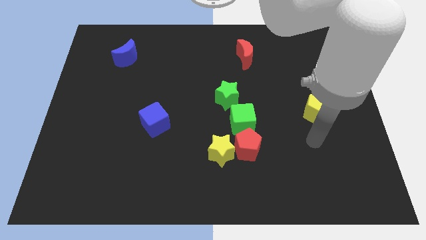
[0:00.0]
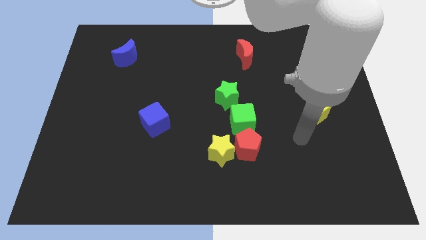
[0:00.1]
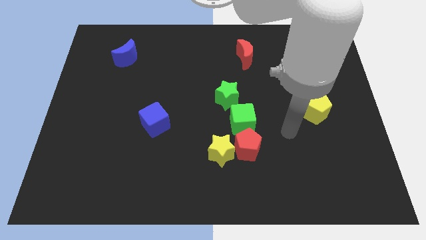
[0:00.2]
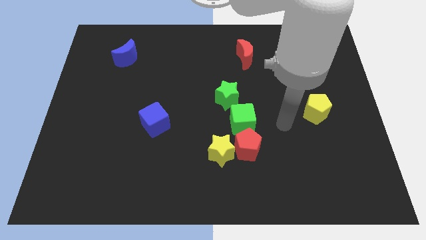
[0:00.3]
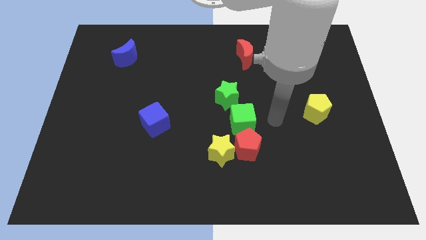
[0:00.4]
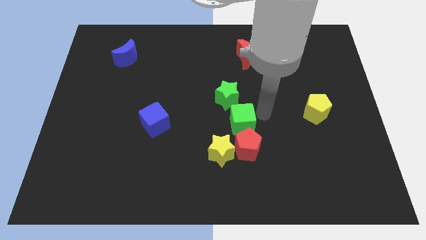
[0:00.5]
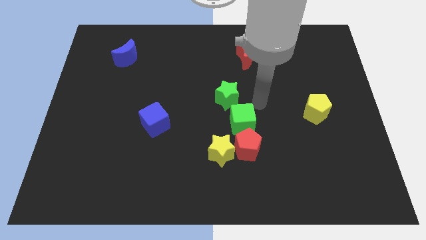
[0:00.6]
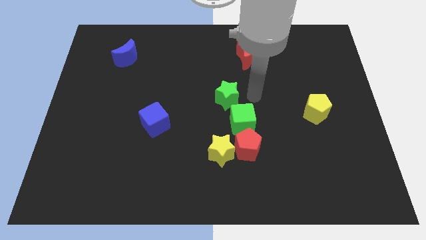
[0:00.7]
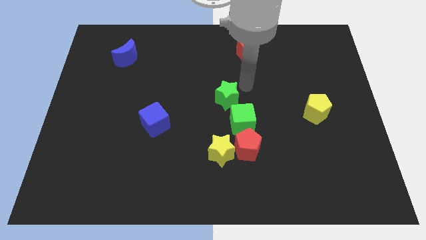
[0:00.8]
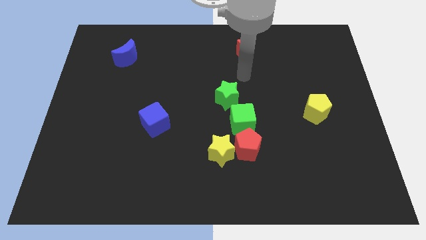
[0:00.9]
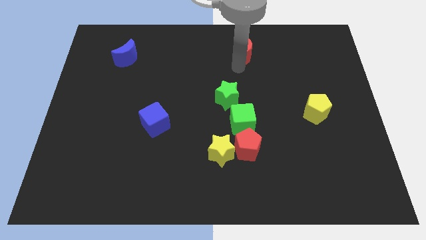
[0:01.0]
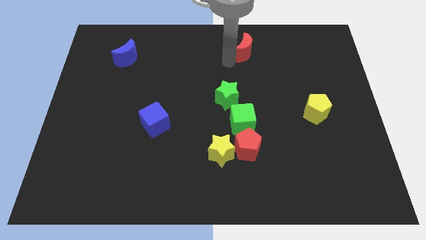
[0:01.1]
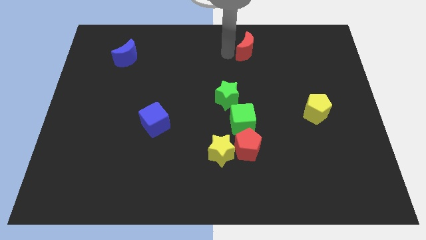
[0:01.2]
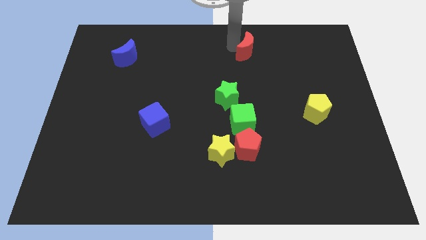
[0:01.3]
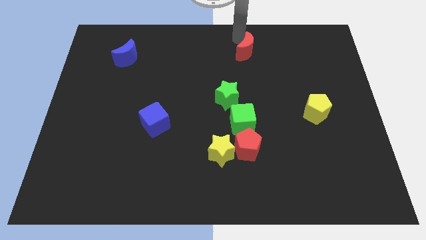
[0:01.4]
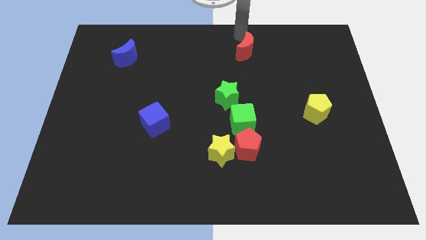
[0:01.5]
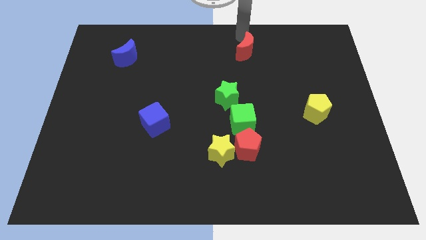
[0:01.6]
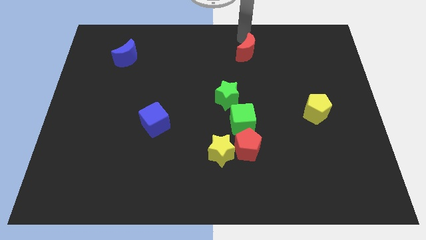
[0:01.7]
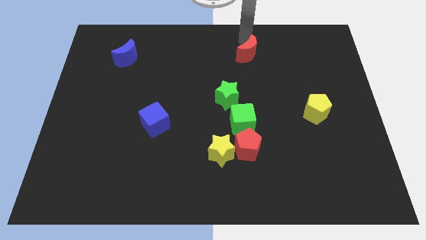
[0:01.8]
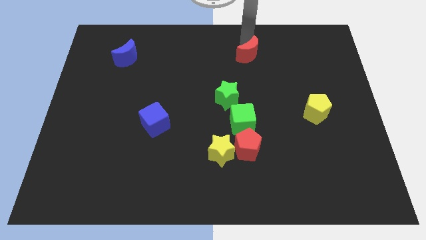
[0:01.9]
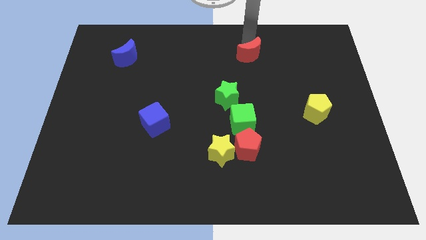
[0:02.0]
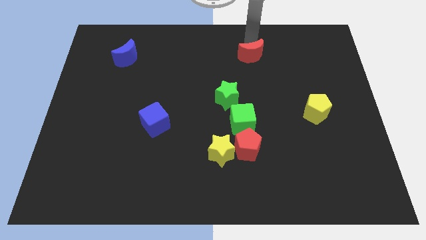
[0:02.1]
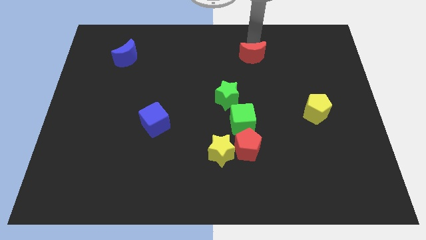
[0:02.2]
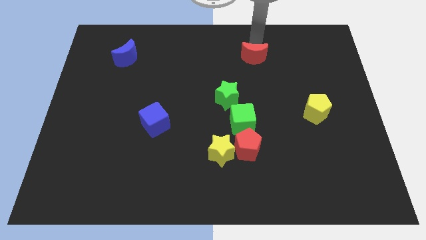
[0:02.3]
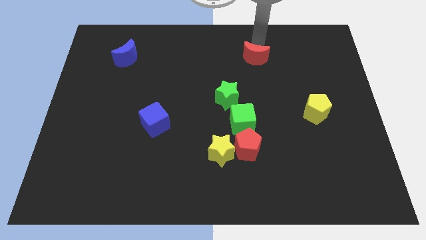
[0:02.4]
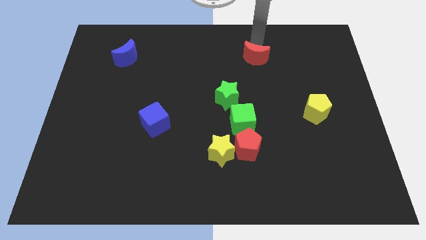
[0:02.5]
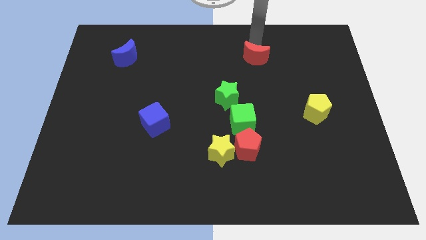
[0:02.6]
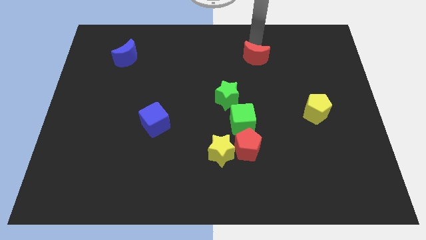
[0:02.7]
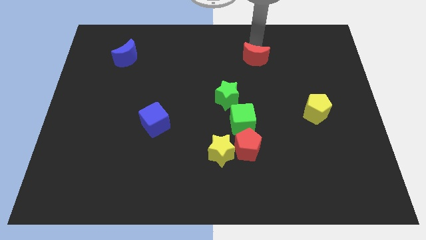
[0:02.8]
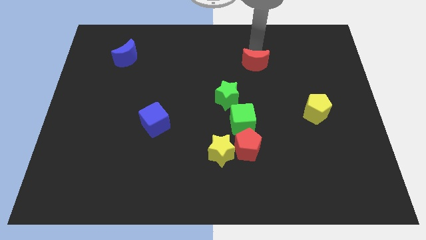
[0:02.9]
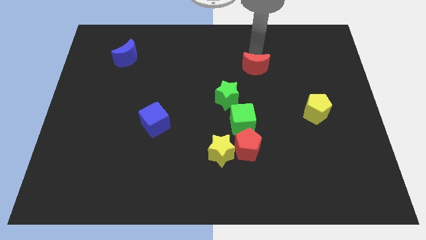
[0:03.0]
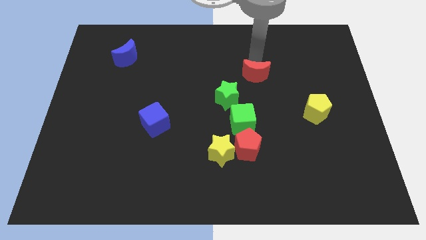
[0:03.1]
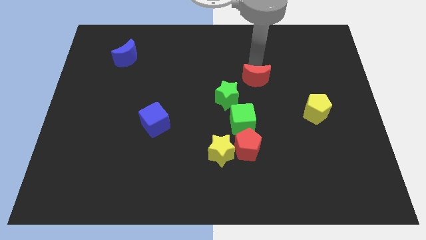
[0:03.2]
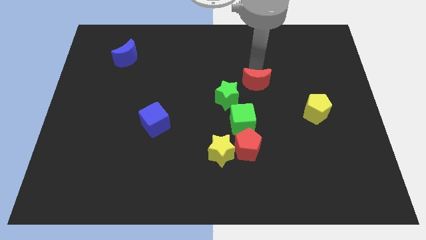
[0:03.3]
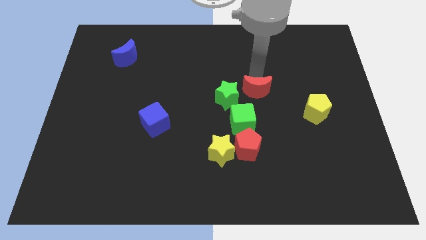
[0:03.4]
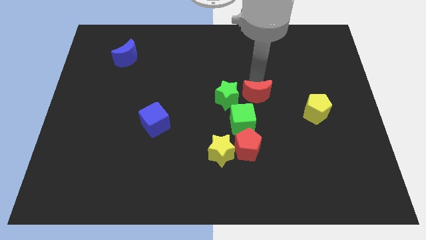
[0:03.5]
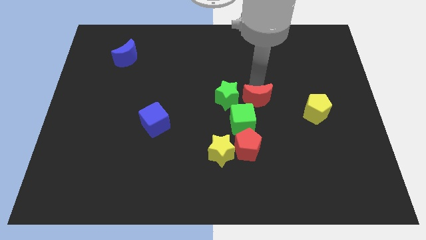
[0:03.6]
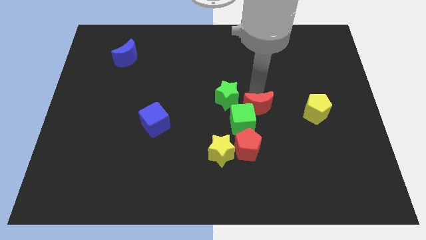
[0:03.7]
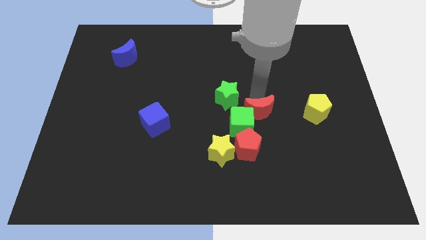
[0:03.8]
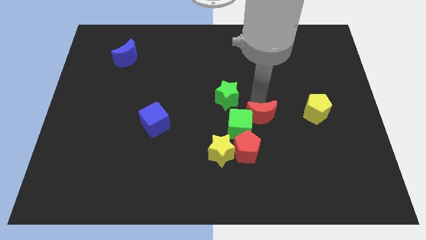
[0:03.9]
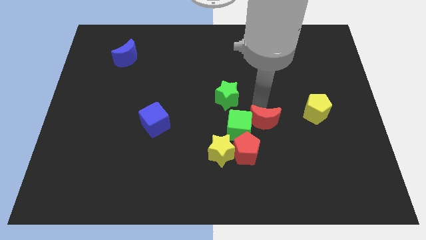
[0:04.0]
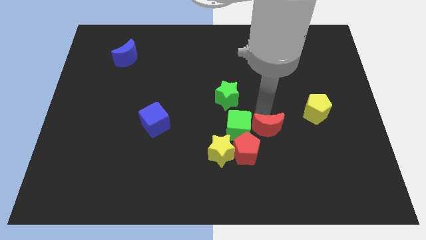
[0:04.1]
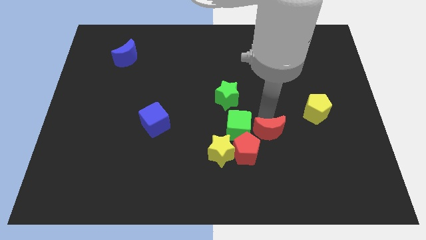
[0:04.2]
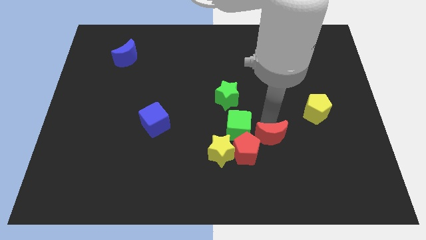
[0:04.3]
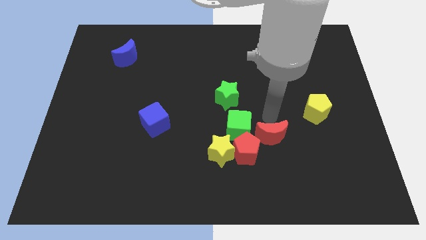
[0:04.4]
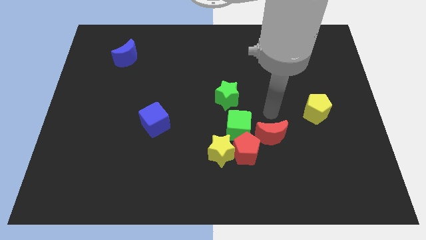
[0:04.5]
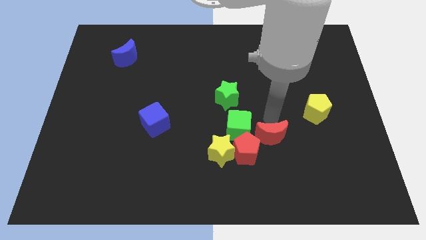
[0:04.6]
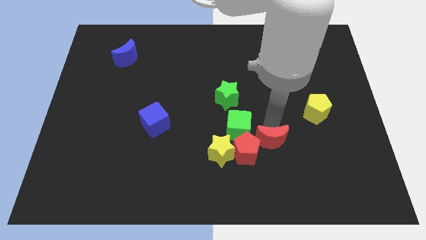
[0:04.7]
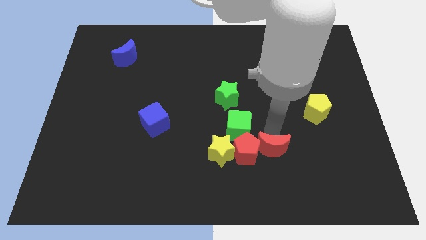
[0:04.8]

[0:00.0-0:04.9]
move the red moon to the bottom right of the red pentagon

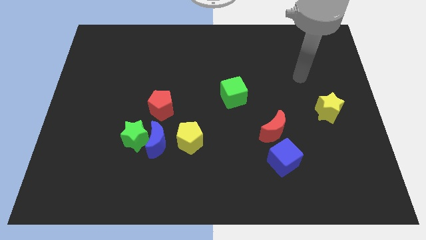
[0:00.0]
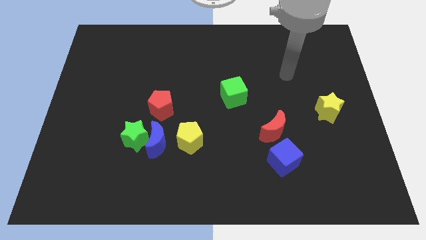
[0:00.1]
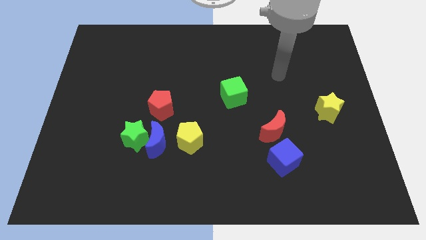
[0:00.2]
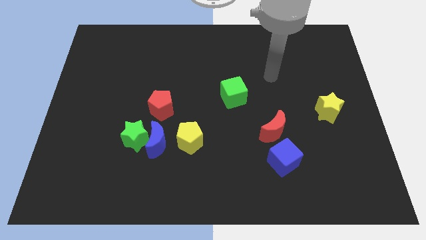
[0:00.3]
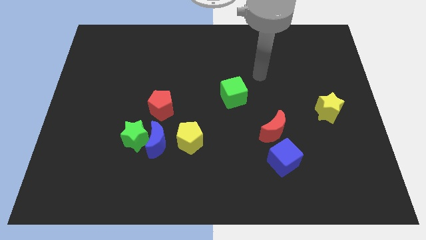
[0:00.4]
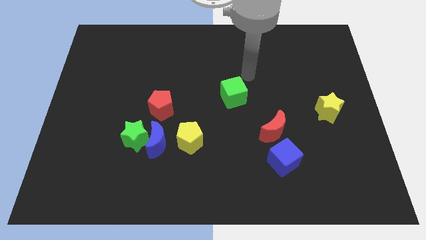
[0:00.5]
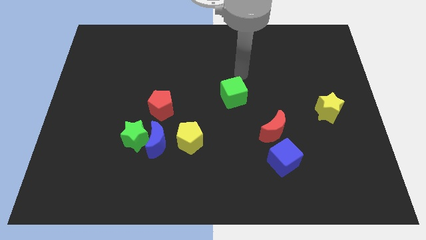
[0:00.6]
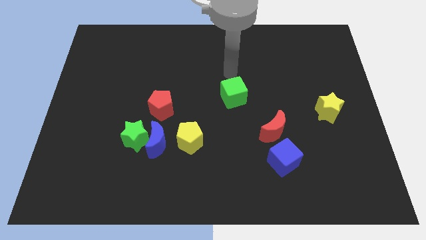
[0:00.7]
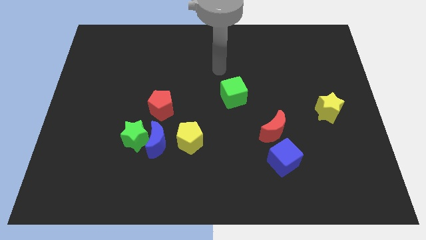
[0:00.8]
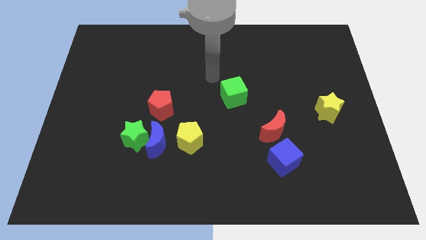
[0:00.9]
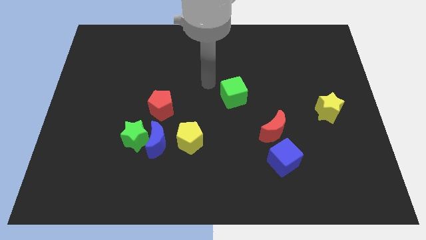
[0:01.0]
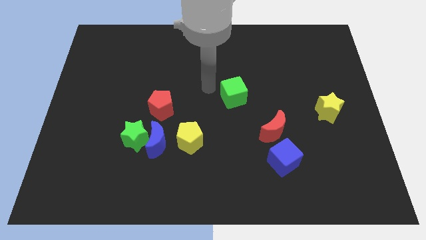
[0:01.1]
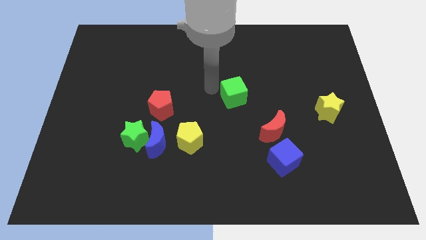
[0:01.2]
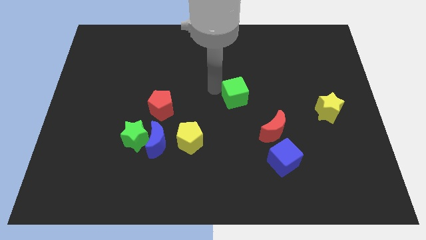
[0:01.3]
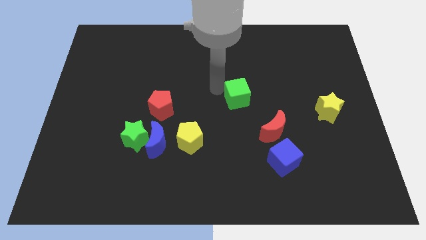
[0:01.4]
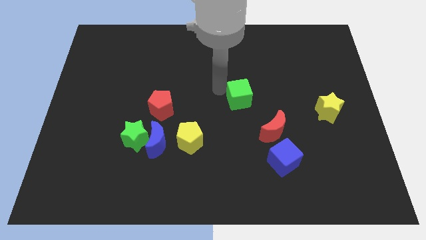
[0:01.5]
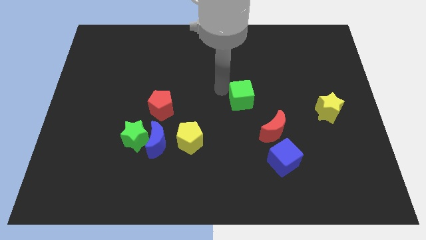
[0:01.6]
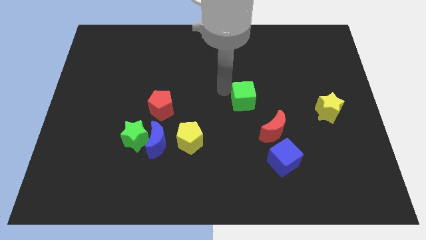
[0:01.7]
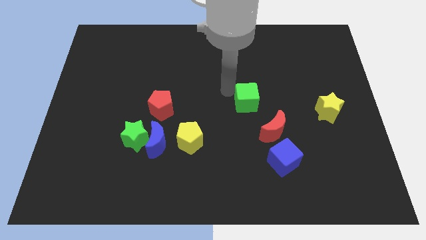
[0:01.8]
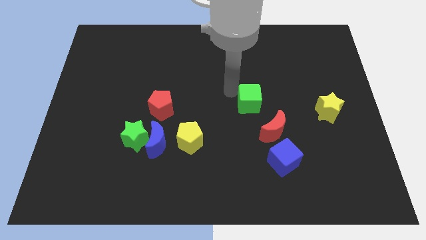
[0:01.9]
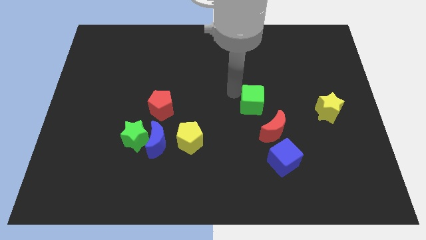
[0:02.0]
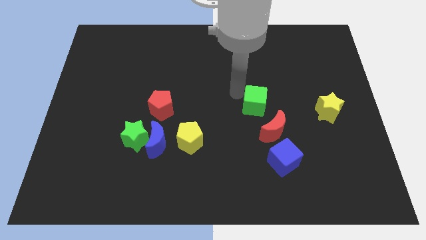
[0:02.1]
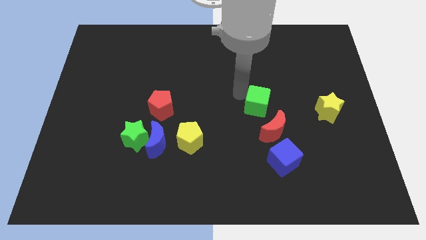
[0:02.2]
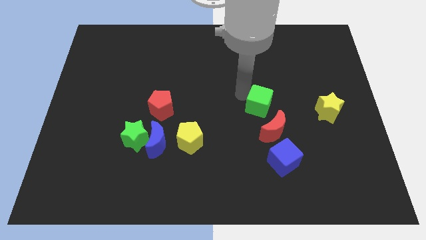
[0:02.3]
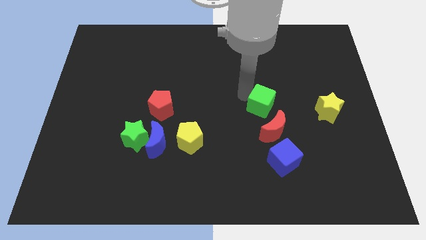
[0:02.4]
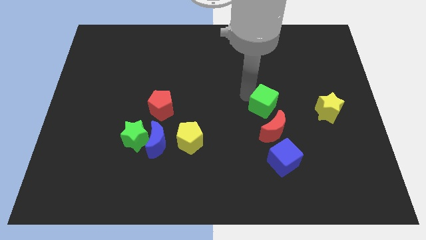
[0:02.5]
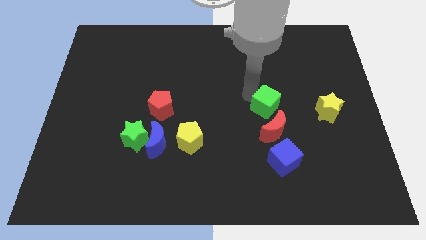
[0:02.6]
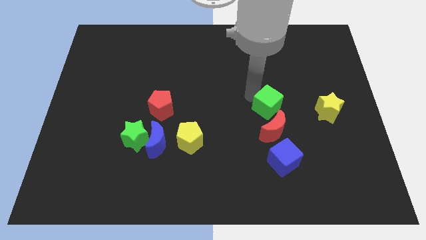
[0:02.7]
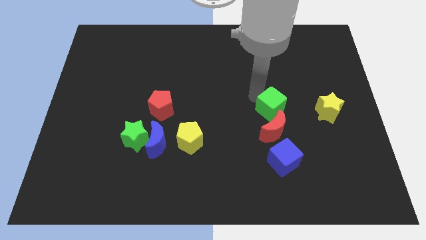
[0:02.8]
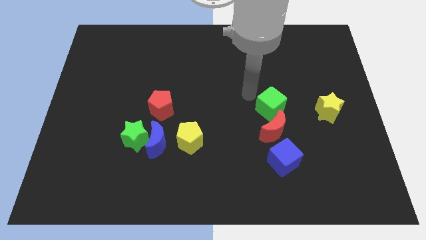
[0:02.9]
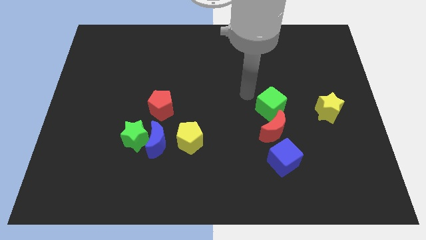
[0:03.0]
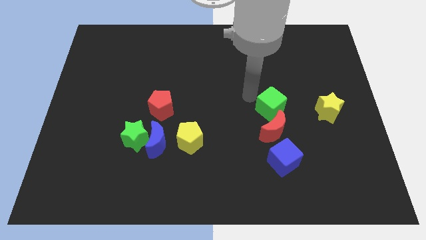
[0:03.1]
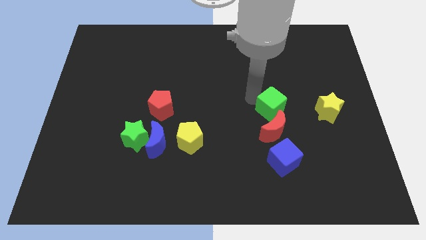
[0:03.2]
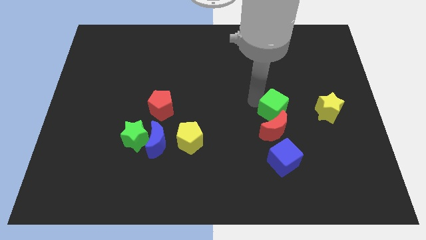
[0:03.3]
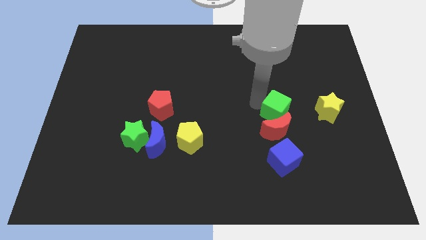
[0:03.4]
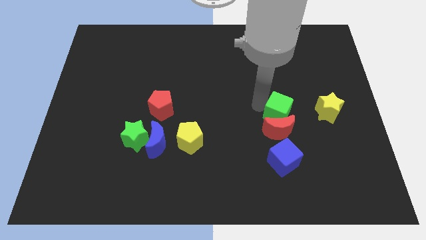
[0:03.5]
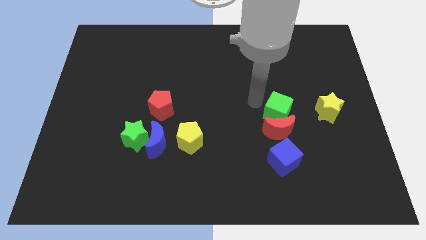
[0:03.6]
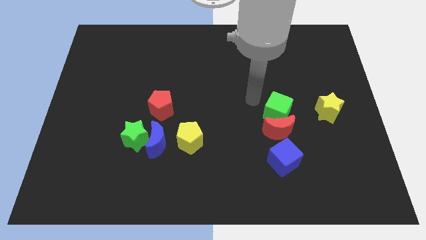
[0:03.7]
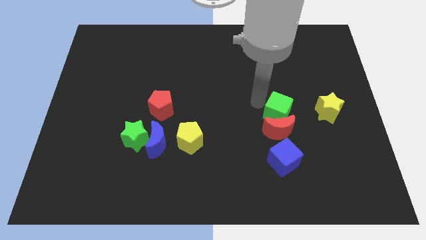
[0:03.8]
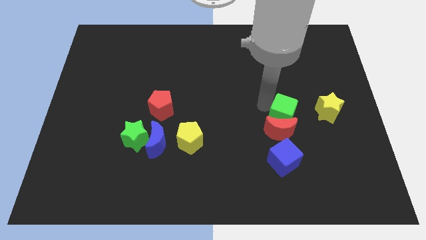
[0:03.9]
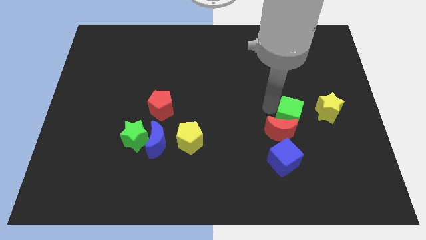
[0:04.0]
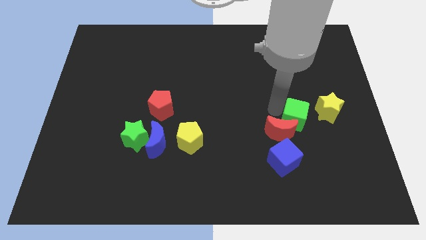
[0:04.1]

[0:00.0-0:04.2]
slide the green cube right of the red moon
